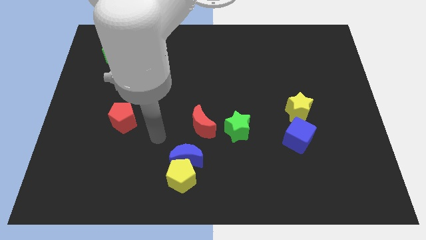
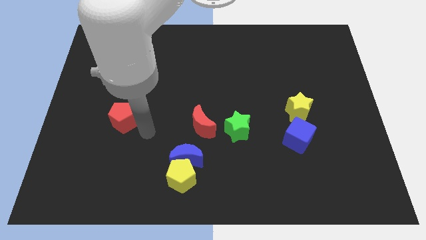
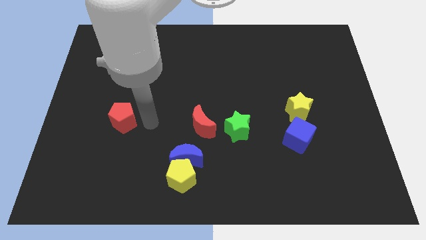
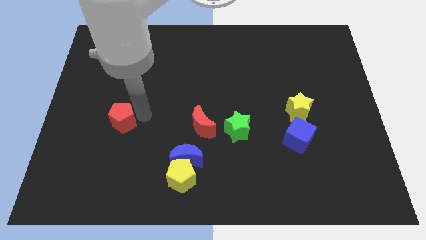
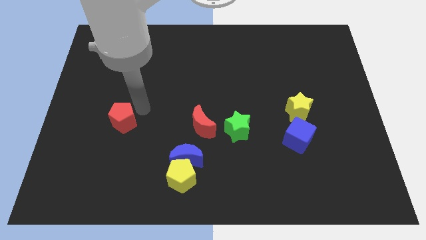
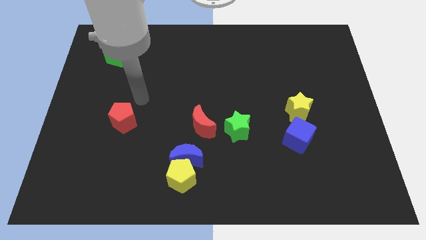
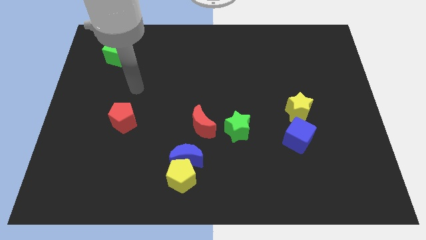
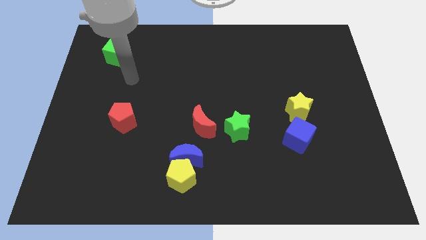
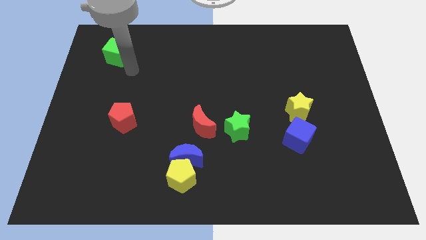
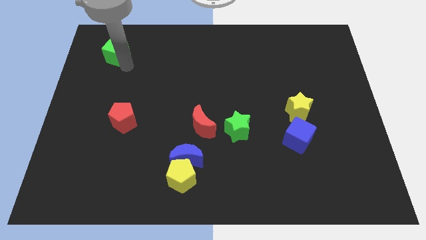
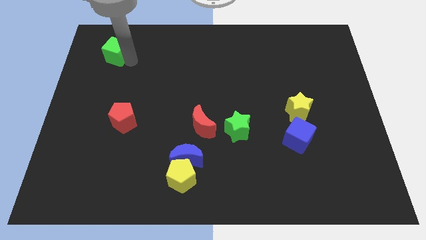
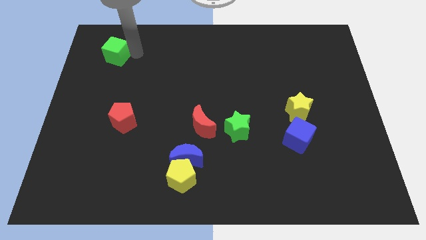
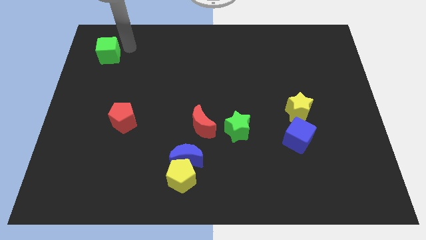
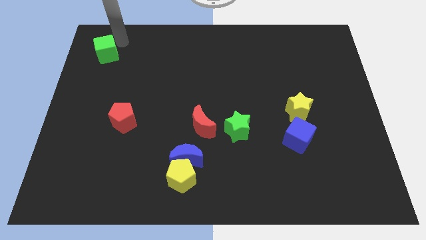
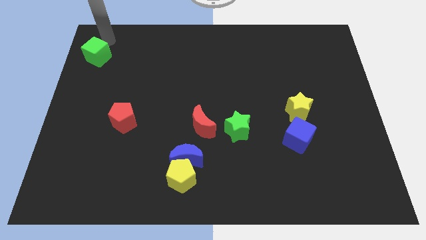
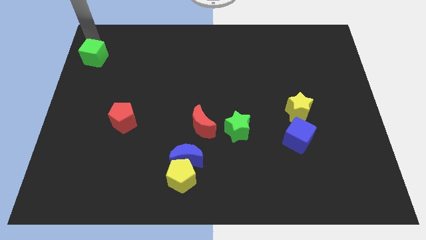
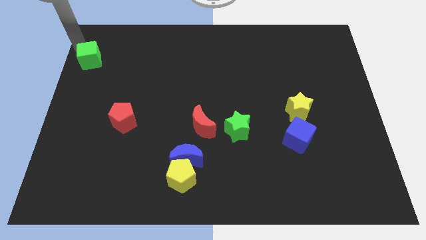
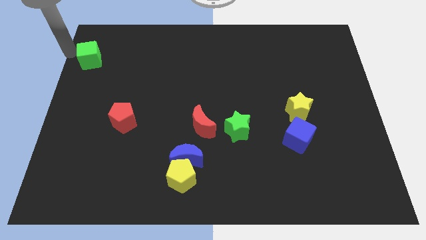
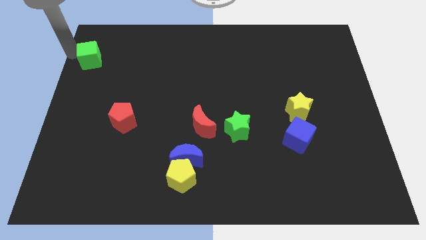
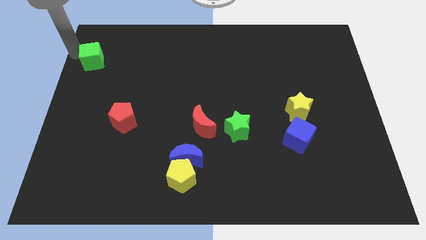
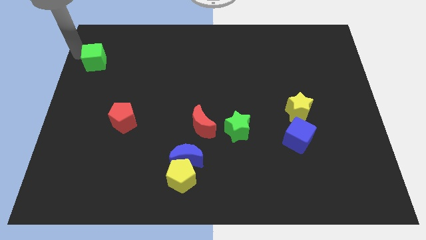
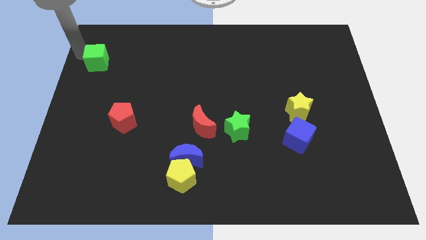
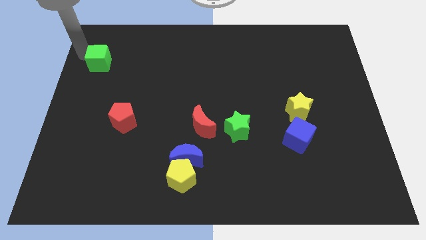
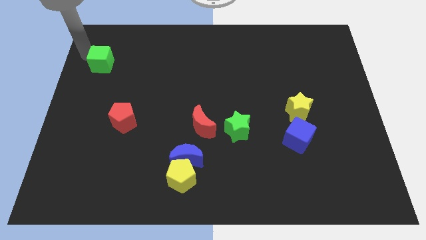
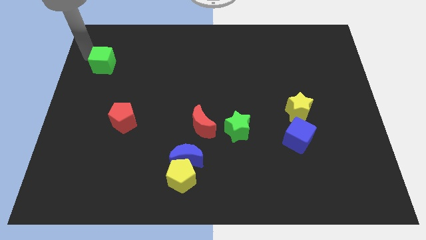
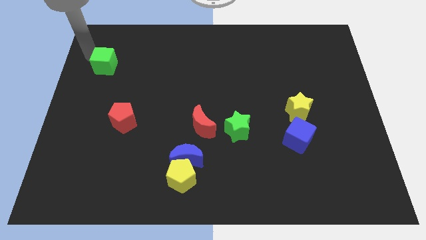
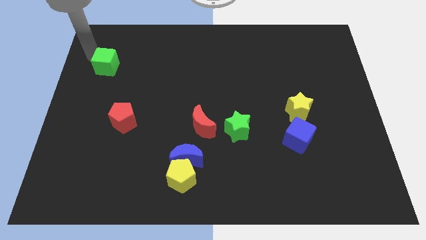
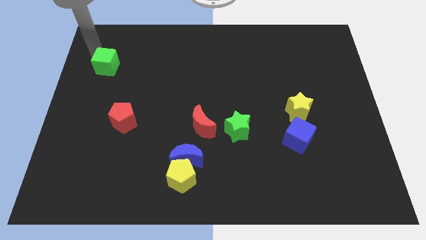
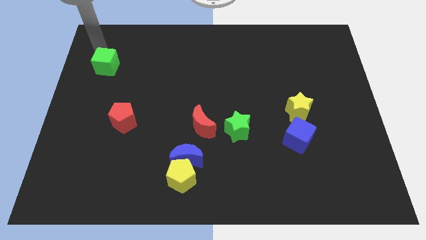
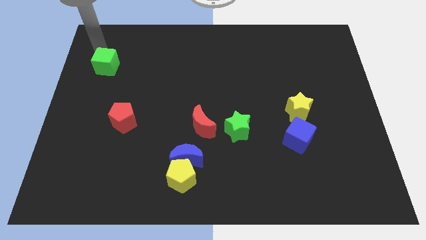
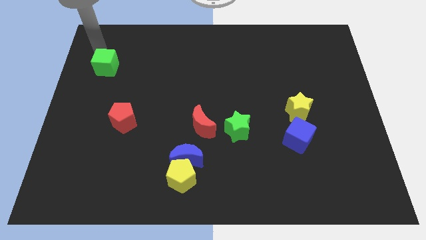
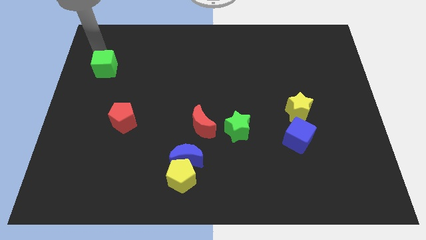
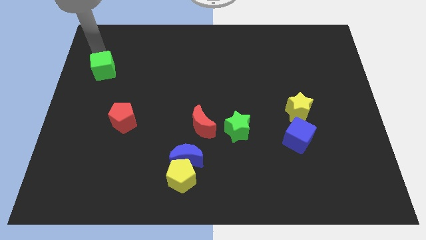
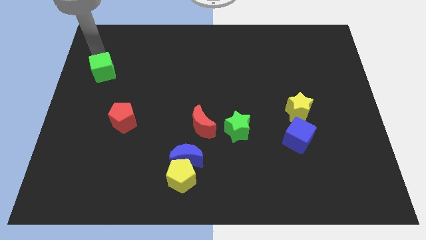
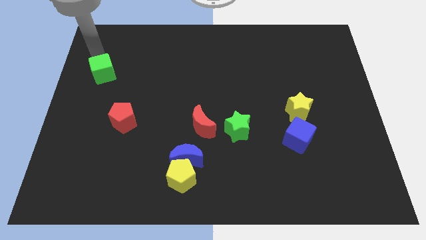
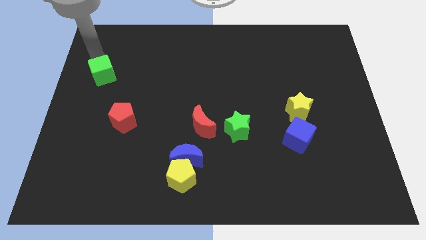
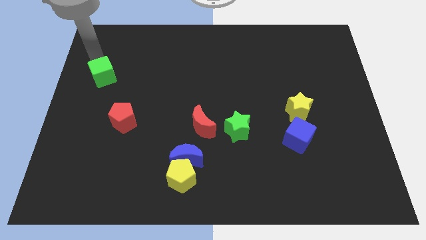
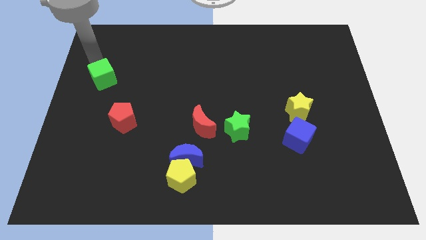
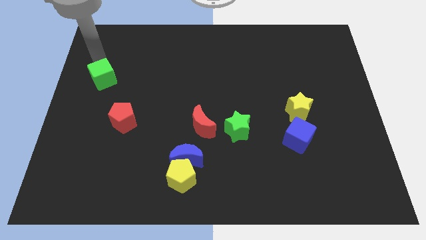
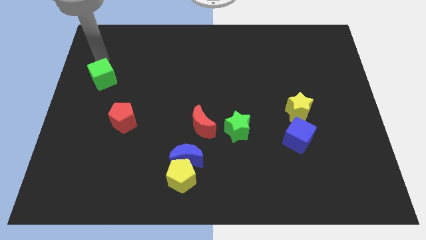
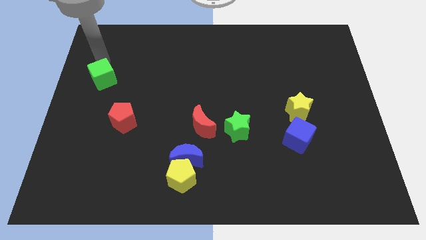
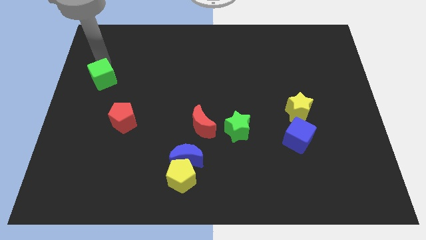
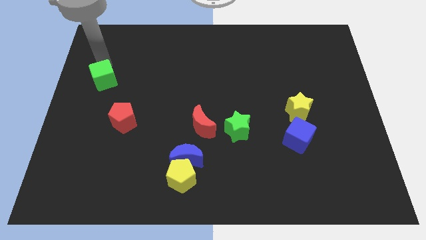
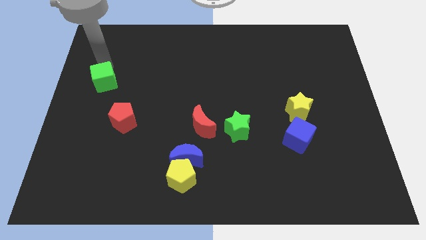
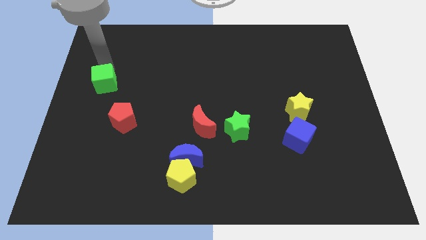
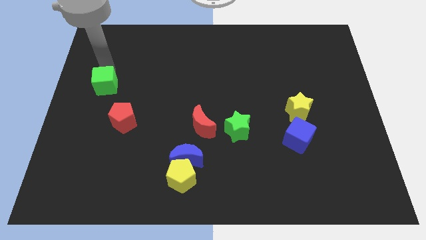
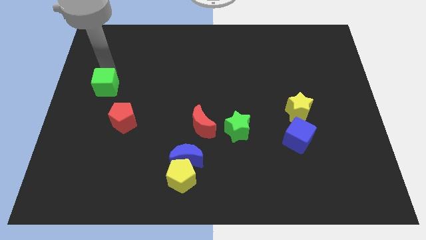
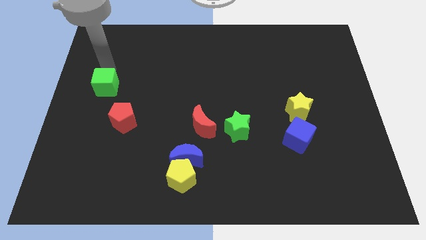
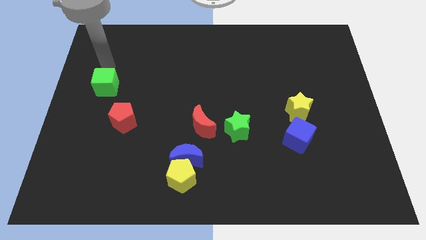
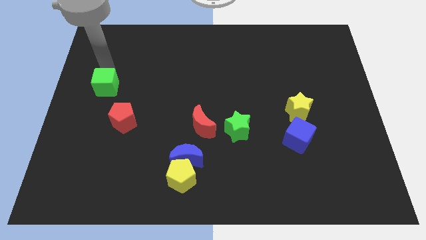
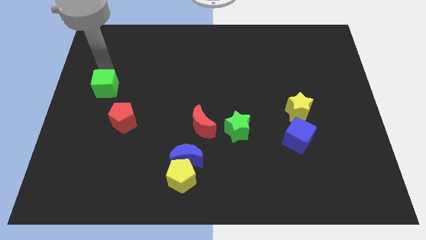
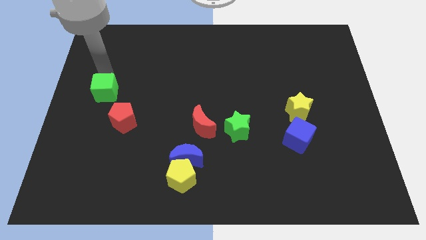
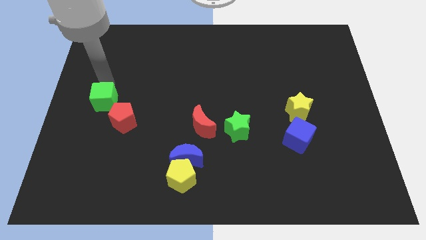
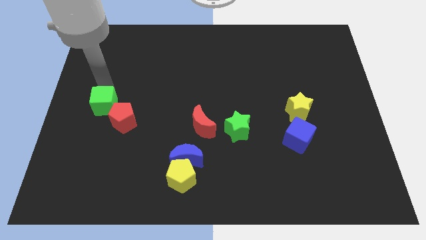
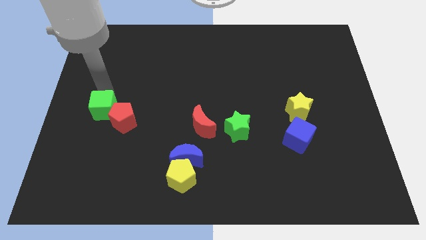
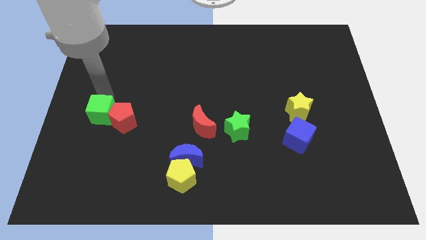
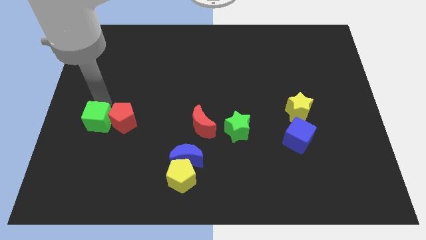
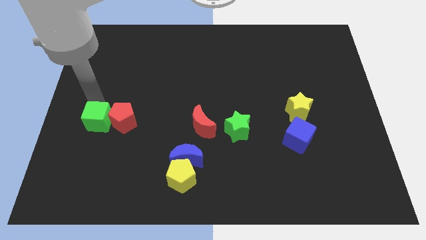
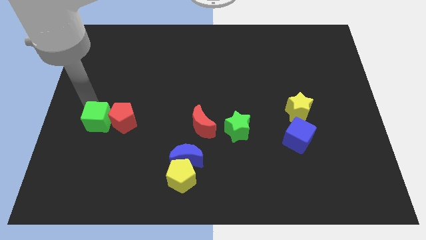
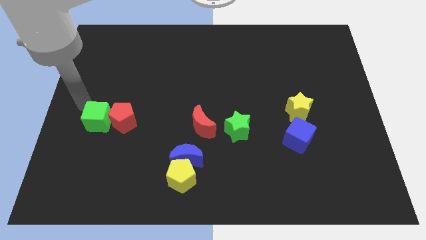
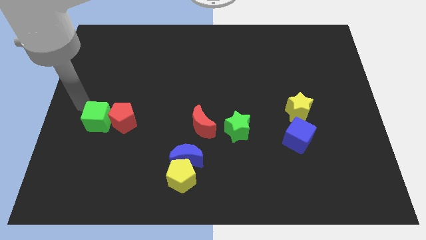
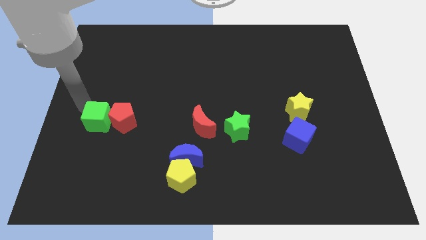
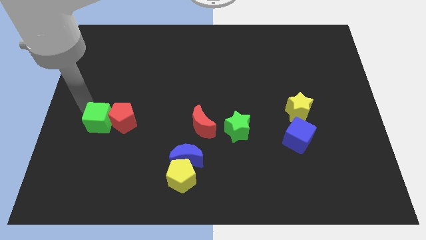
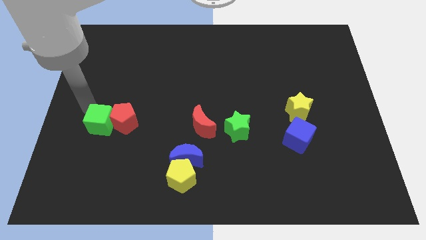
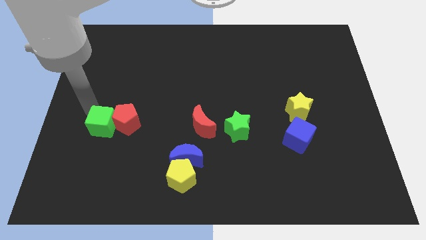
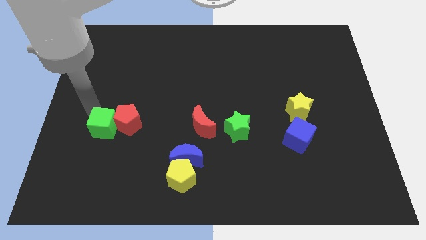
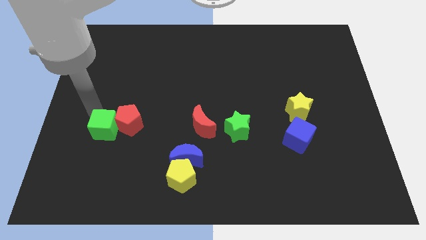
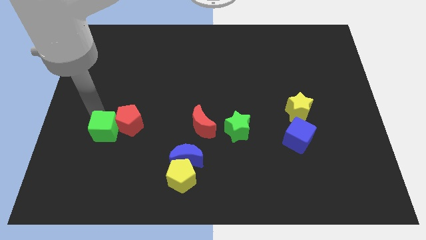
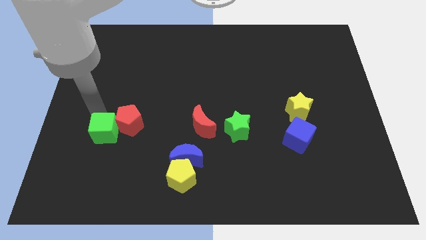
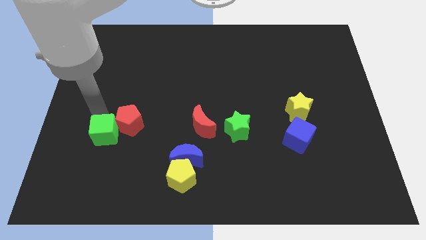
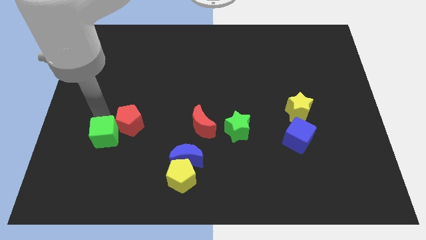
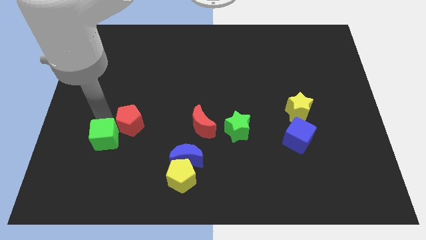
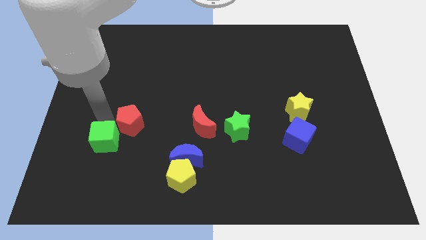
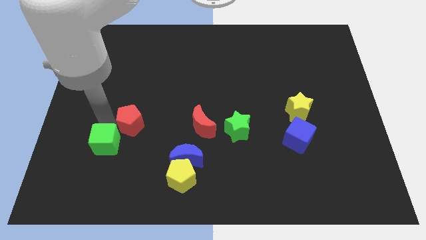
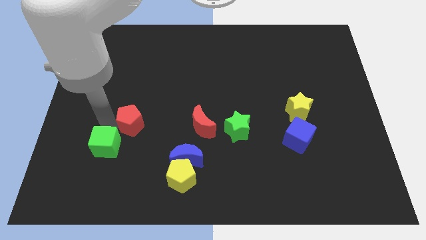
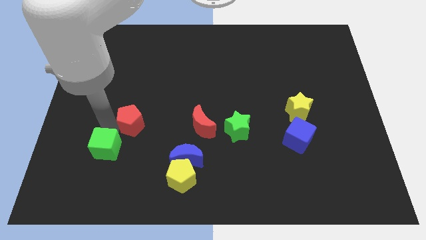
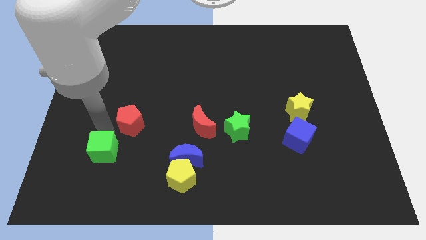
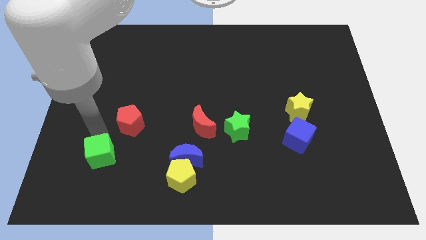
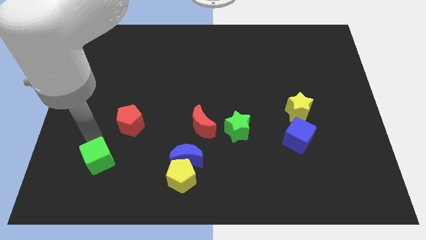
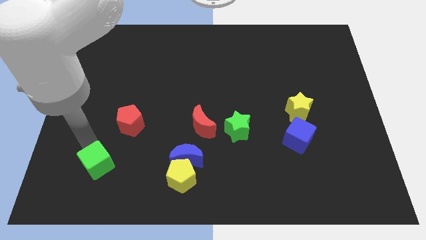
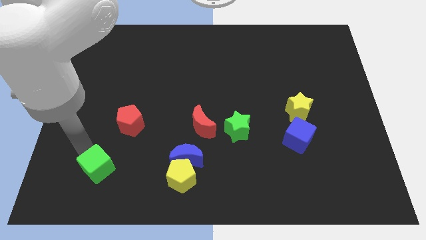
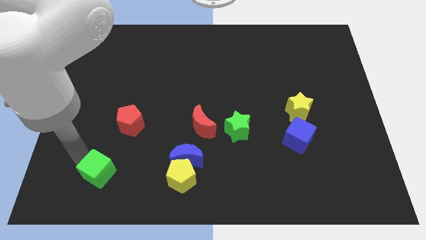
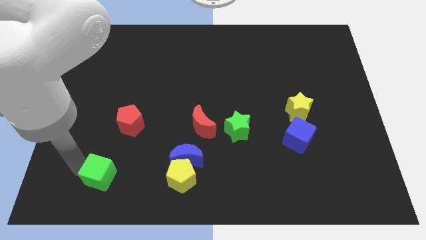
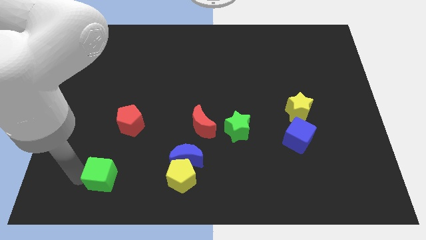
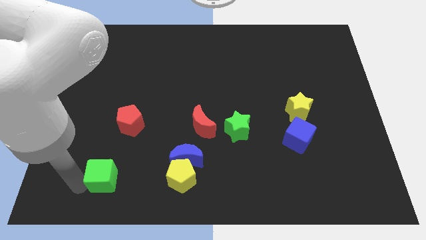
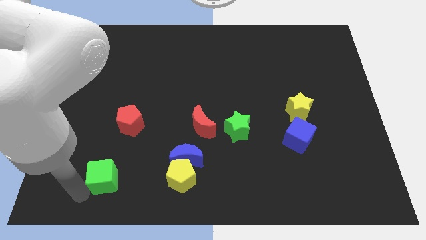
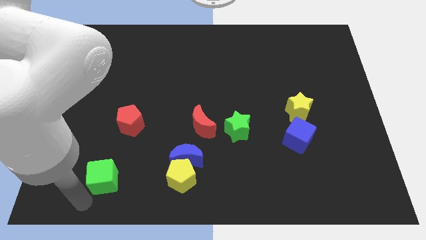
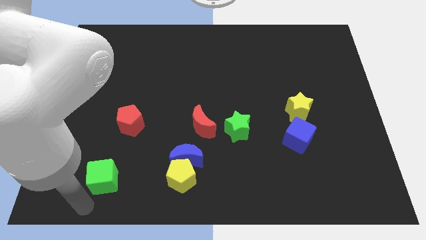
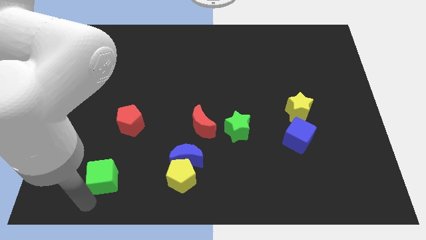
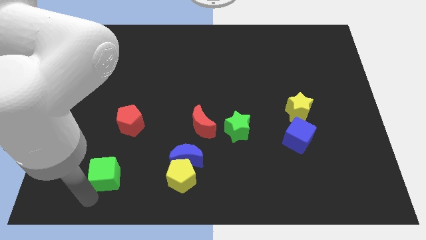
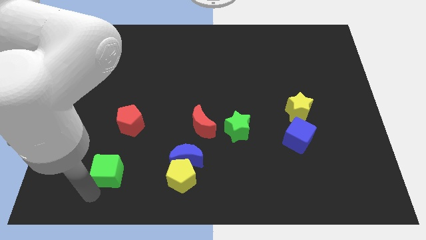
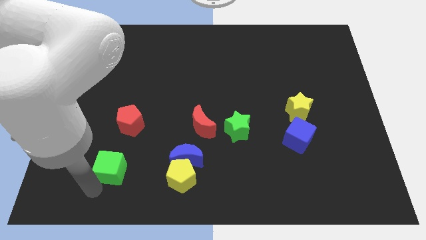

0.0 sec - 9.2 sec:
put the green cube left of the blue moon
